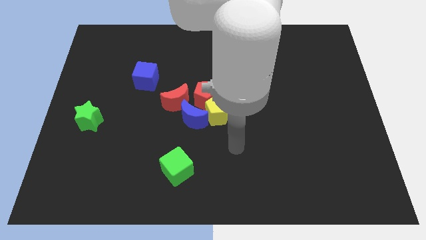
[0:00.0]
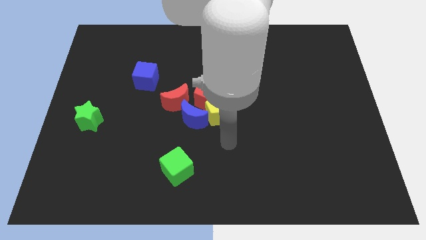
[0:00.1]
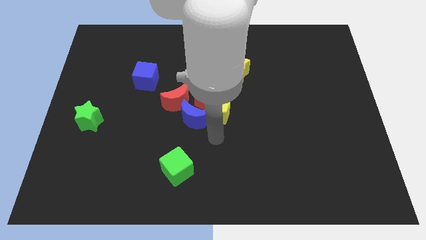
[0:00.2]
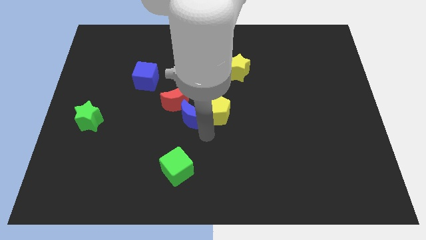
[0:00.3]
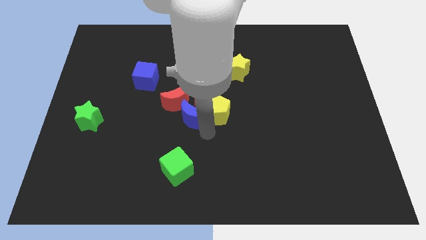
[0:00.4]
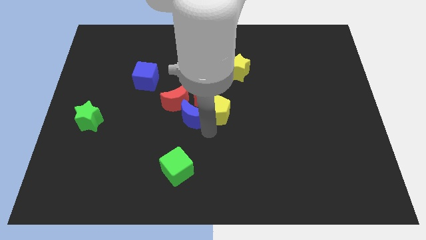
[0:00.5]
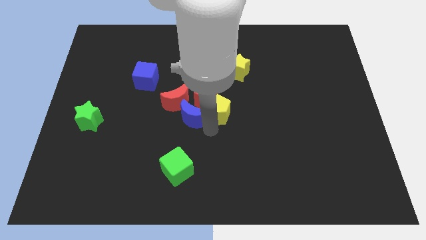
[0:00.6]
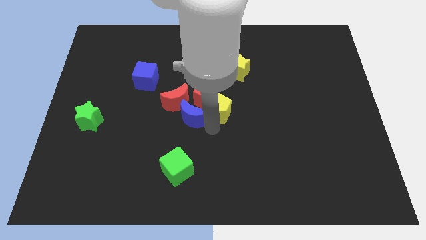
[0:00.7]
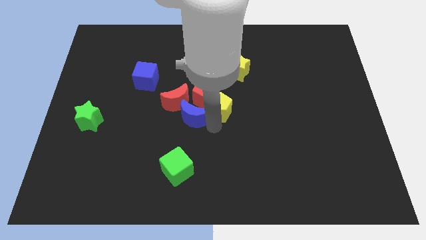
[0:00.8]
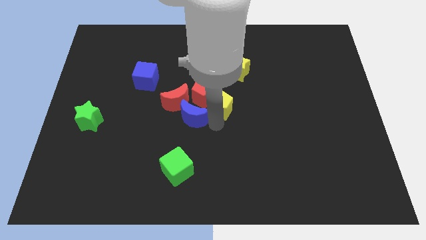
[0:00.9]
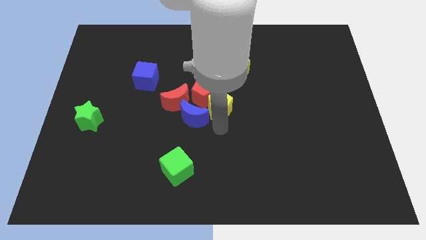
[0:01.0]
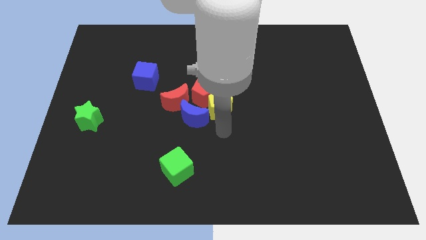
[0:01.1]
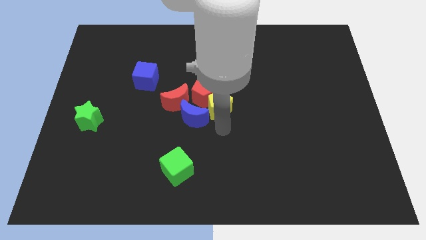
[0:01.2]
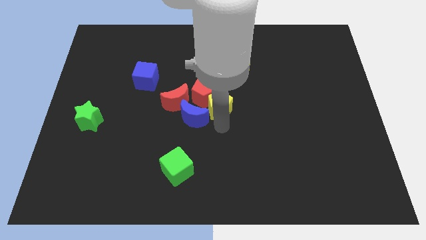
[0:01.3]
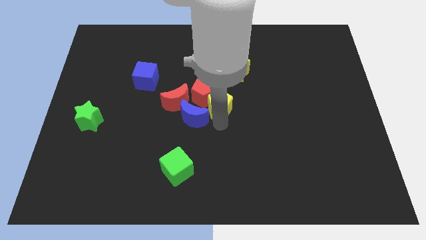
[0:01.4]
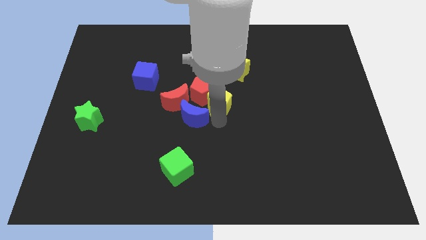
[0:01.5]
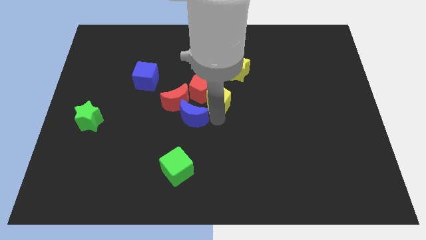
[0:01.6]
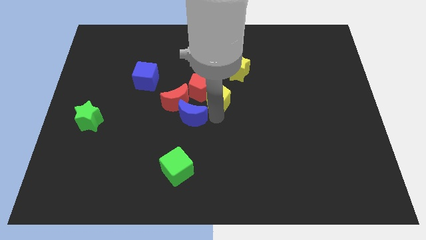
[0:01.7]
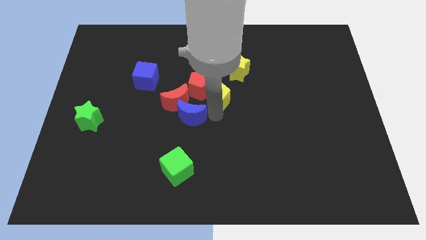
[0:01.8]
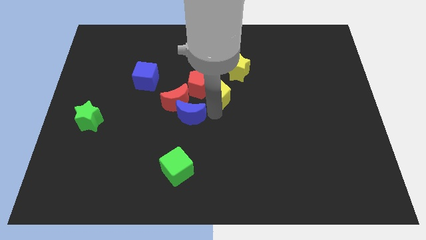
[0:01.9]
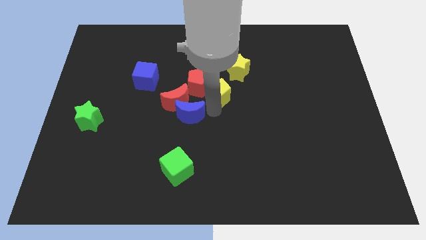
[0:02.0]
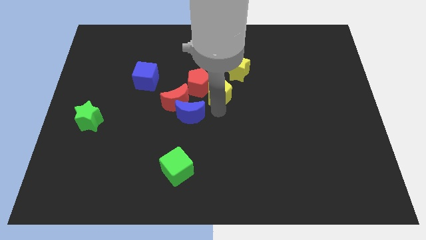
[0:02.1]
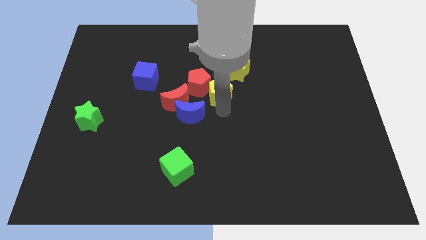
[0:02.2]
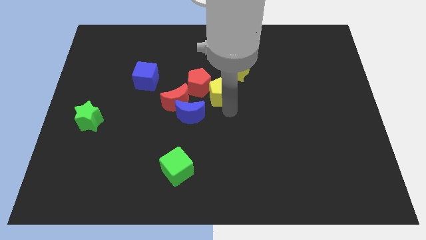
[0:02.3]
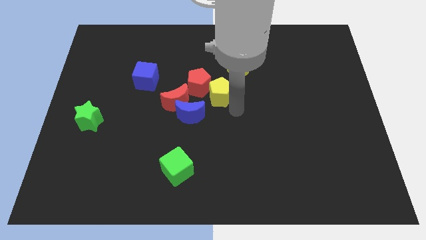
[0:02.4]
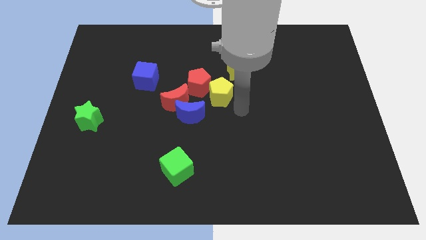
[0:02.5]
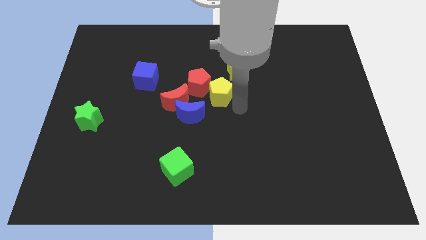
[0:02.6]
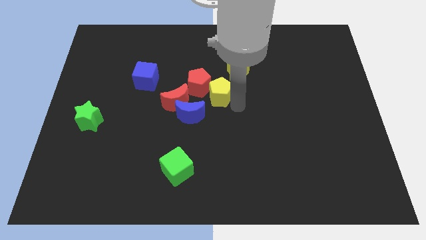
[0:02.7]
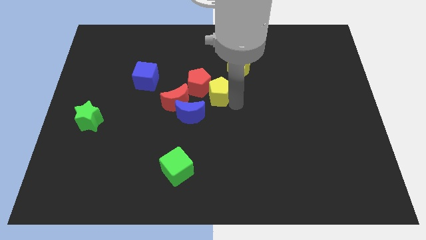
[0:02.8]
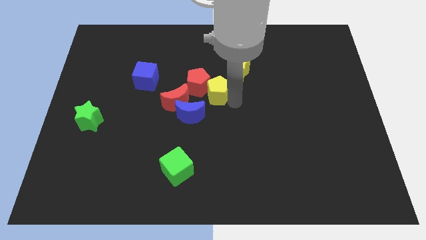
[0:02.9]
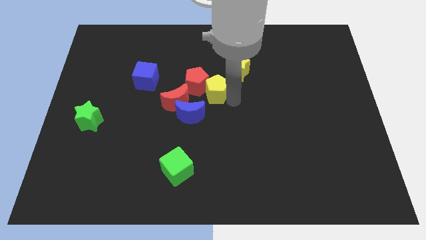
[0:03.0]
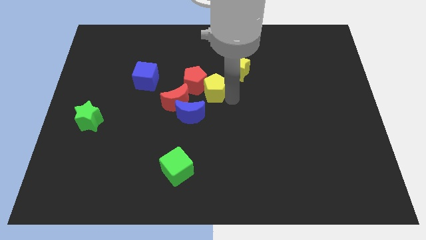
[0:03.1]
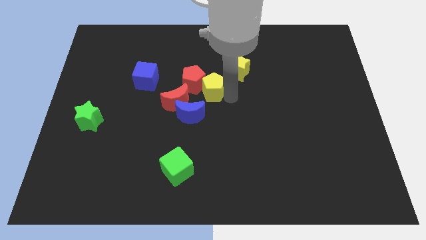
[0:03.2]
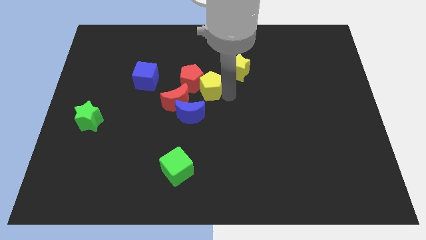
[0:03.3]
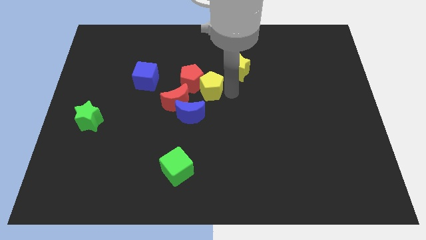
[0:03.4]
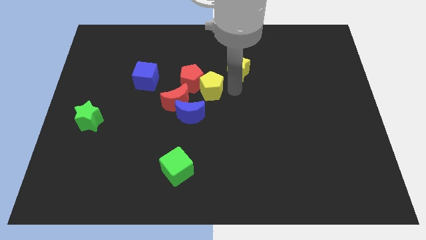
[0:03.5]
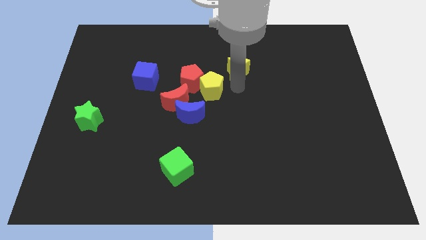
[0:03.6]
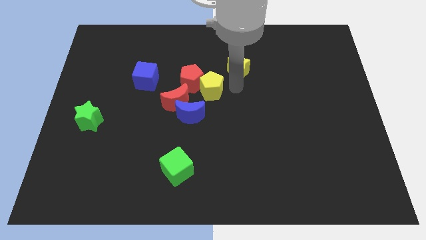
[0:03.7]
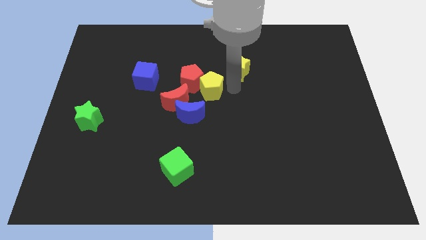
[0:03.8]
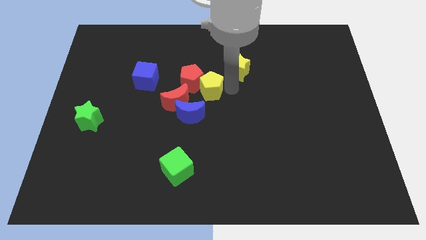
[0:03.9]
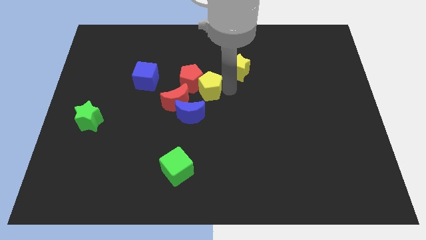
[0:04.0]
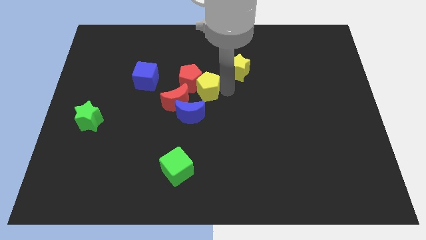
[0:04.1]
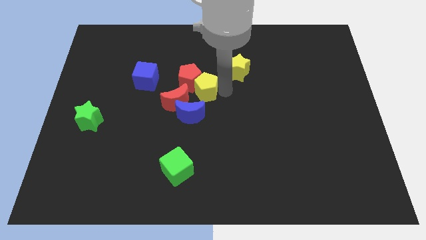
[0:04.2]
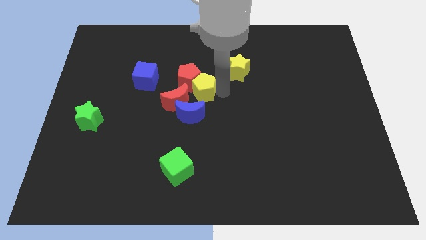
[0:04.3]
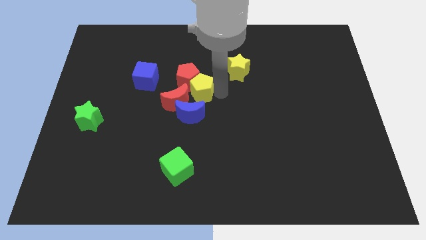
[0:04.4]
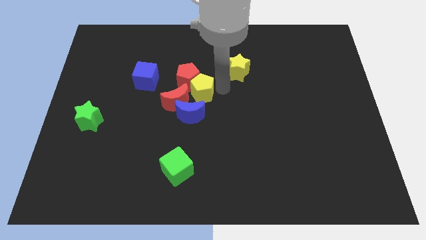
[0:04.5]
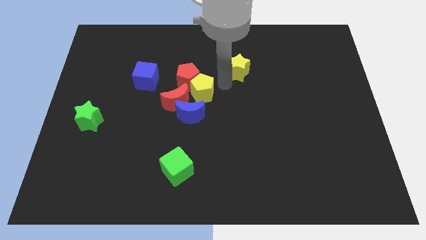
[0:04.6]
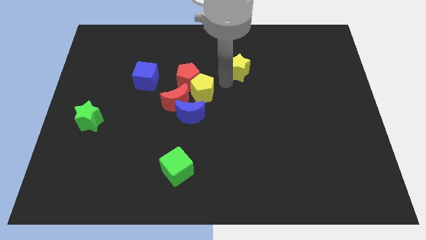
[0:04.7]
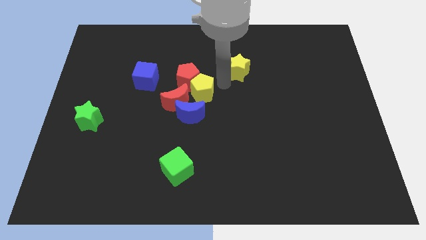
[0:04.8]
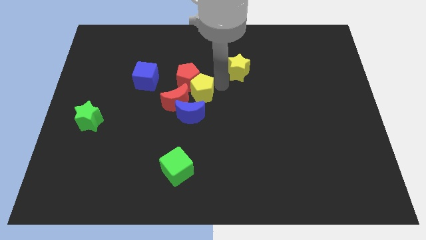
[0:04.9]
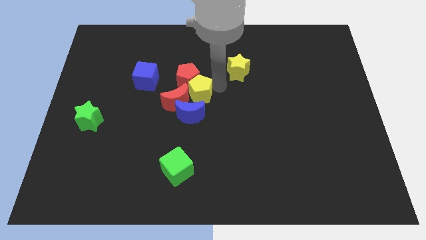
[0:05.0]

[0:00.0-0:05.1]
slide the yellow pentagon next to the red moon

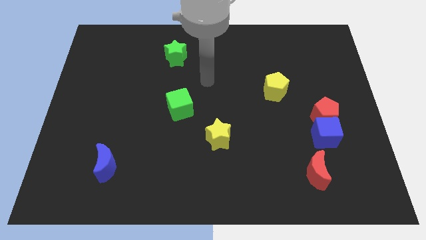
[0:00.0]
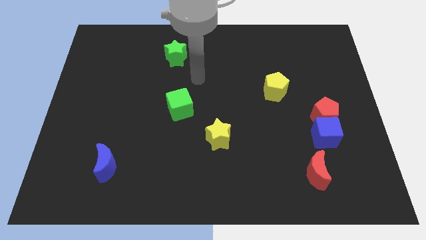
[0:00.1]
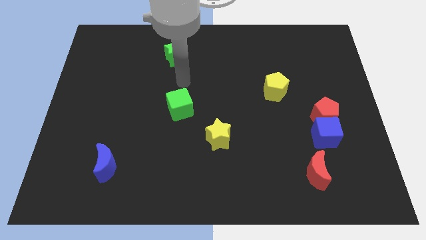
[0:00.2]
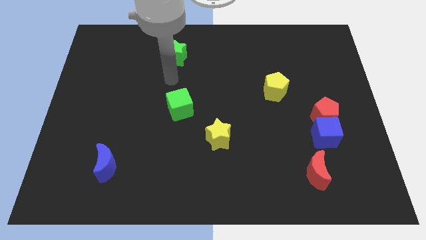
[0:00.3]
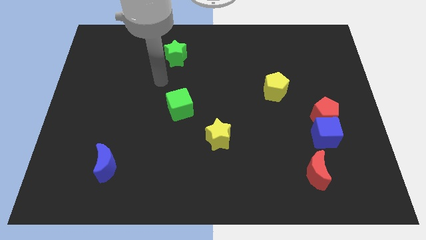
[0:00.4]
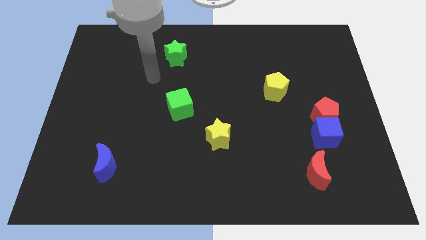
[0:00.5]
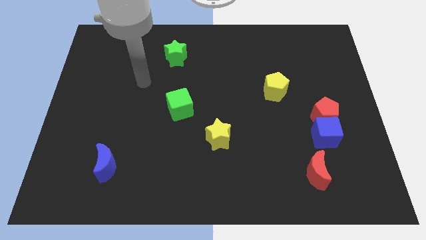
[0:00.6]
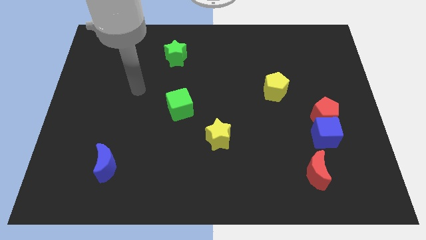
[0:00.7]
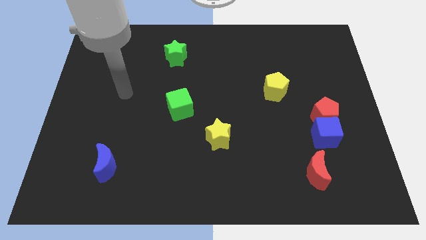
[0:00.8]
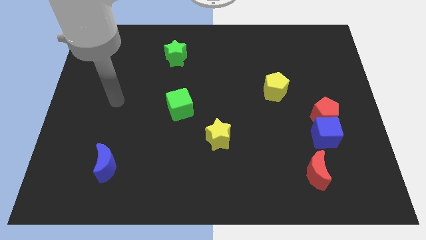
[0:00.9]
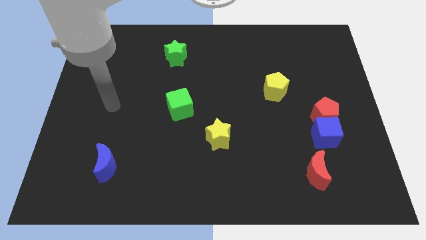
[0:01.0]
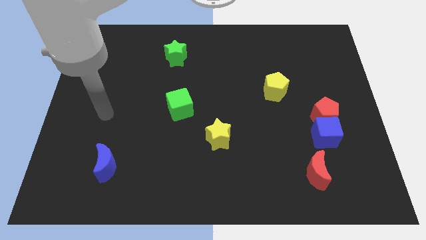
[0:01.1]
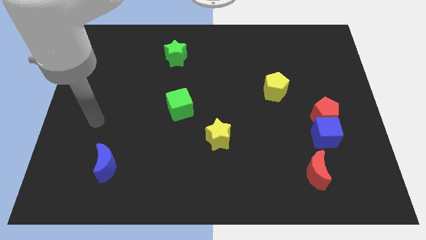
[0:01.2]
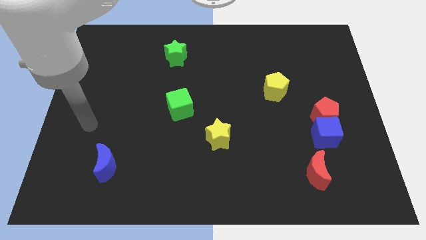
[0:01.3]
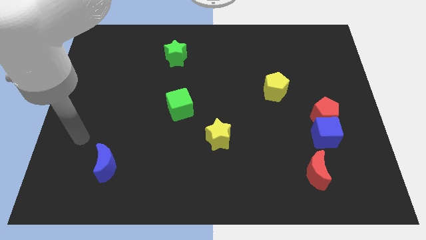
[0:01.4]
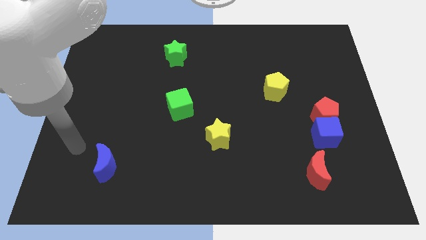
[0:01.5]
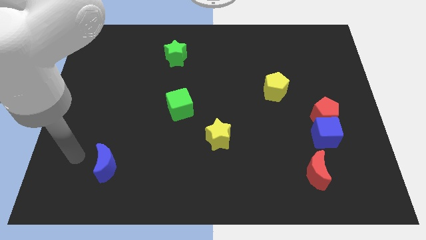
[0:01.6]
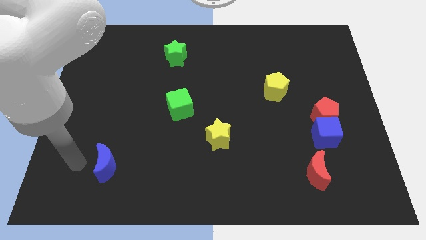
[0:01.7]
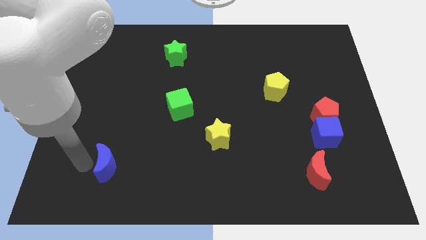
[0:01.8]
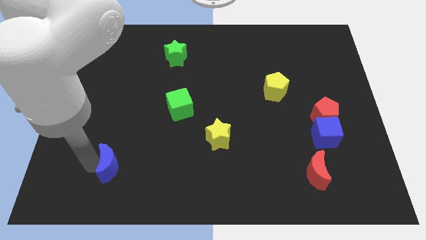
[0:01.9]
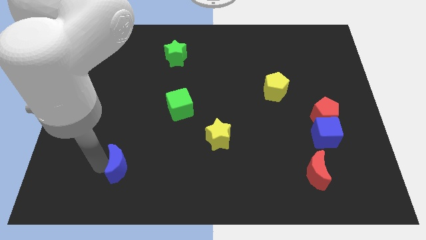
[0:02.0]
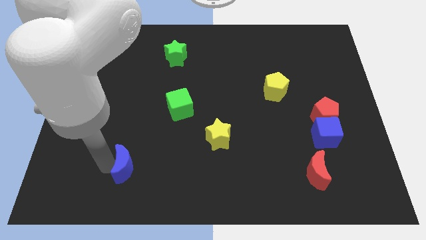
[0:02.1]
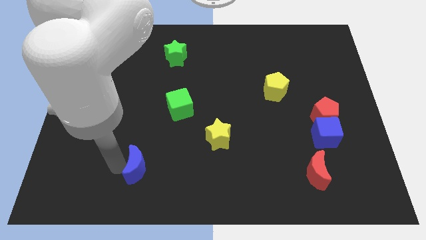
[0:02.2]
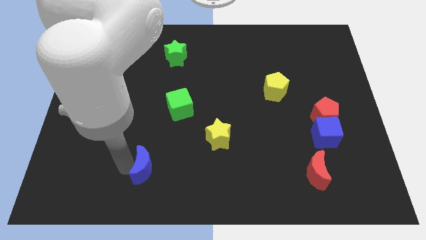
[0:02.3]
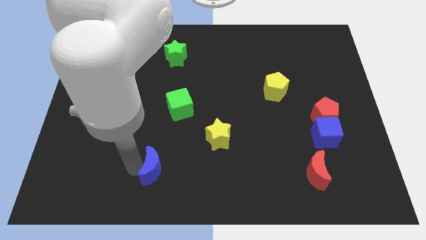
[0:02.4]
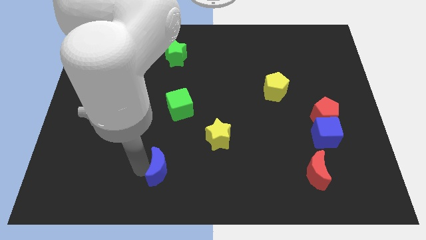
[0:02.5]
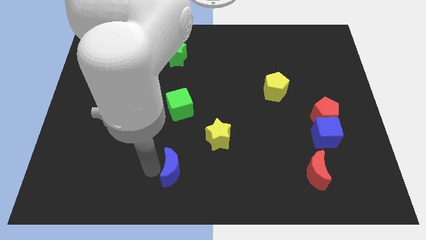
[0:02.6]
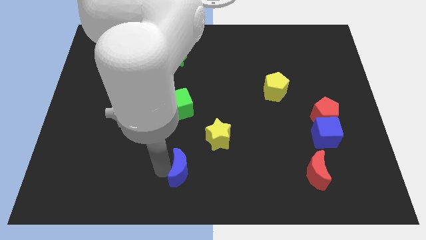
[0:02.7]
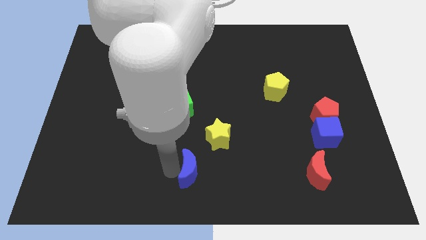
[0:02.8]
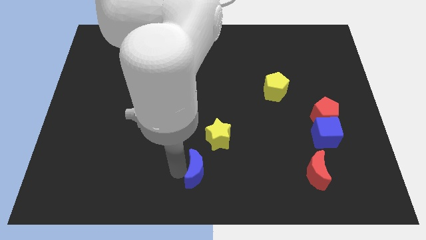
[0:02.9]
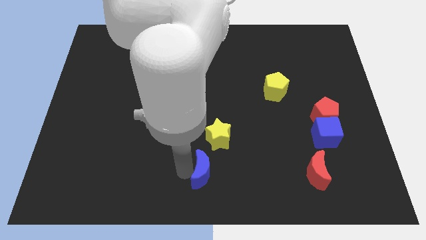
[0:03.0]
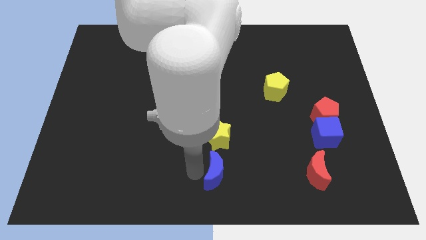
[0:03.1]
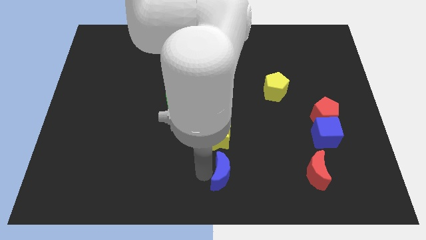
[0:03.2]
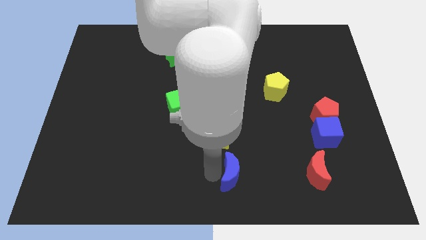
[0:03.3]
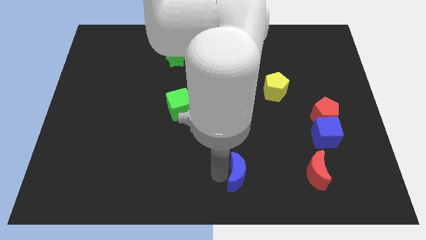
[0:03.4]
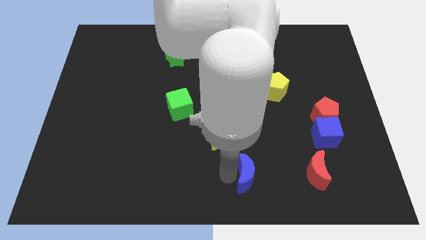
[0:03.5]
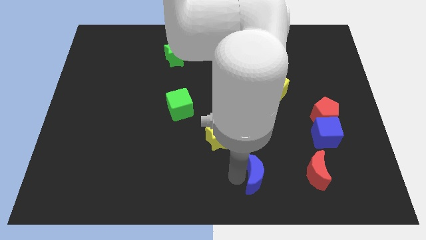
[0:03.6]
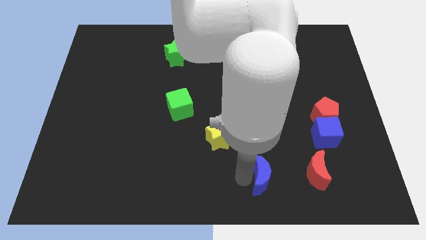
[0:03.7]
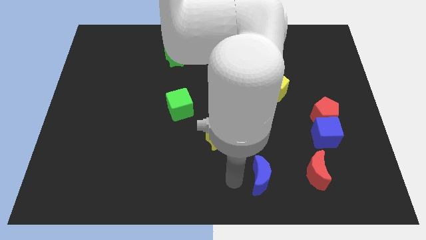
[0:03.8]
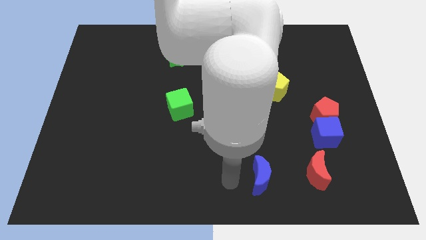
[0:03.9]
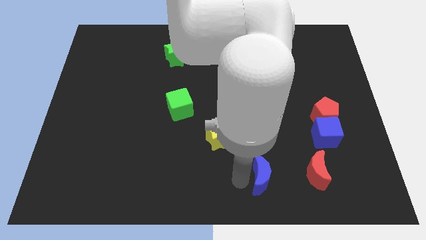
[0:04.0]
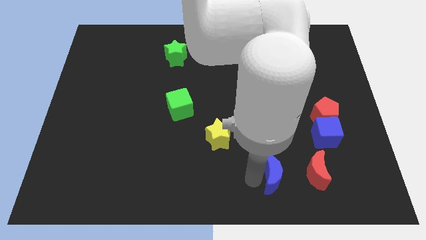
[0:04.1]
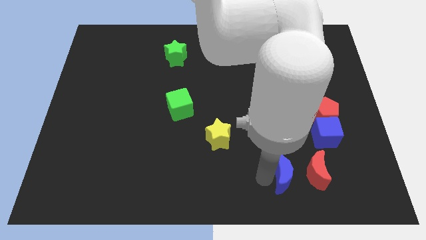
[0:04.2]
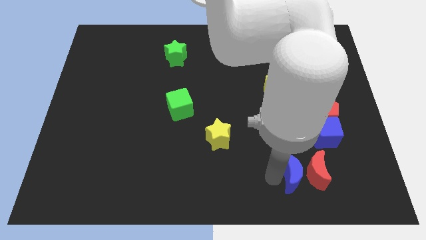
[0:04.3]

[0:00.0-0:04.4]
push the blue moon towards the red moon
